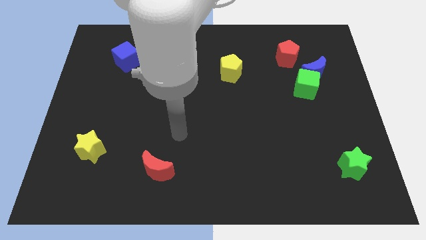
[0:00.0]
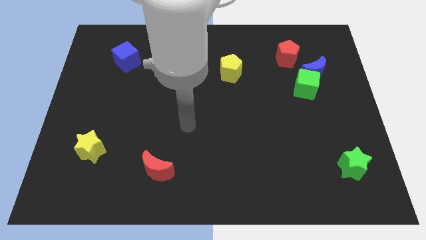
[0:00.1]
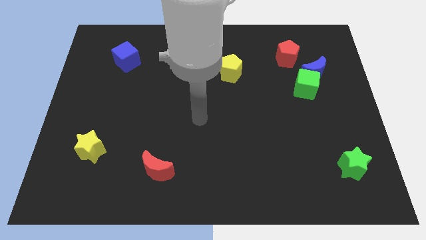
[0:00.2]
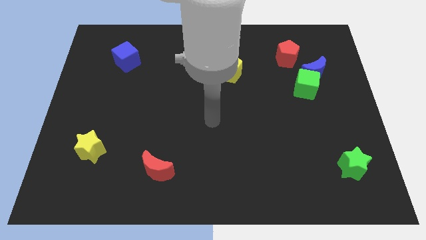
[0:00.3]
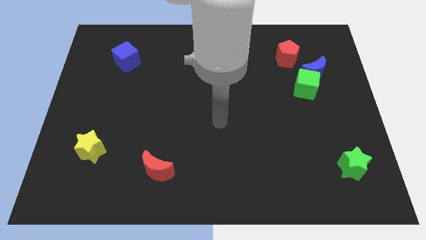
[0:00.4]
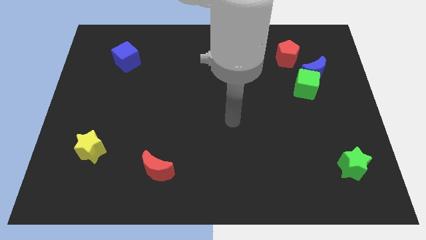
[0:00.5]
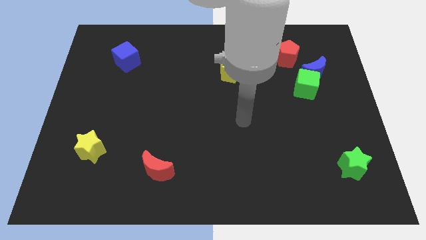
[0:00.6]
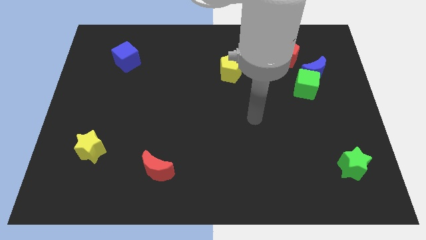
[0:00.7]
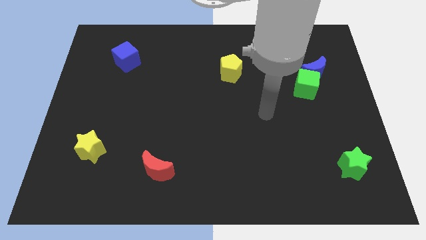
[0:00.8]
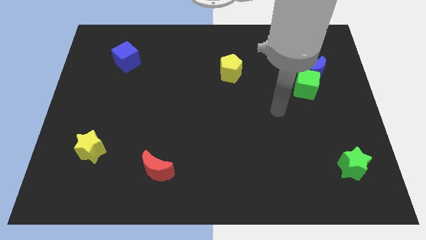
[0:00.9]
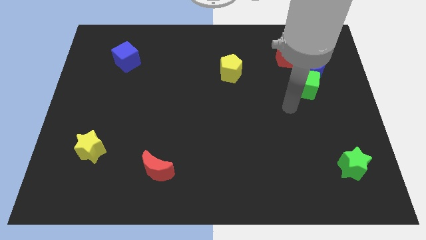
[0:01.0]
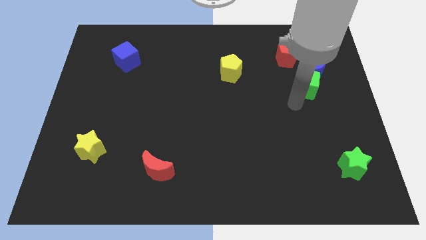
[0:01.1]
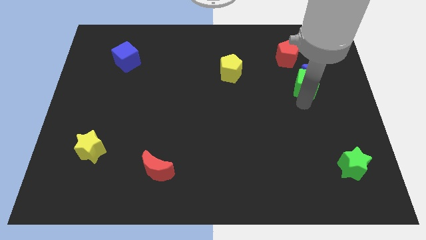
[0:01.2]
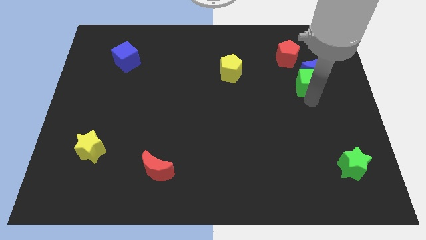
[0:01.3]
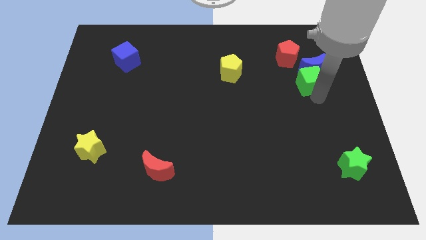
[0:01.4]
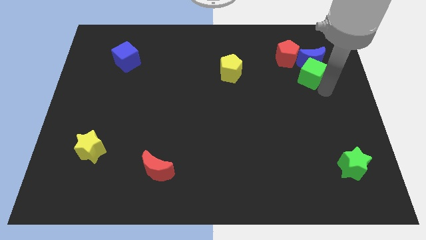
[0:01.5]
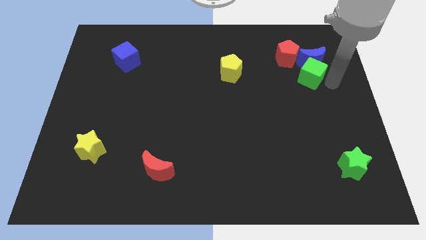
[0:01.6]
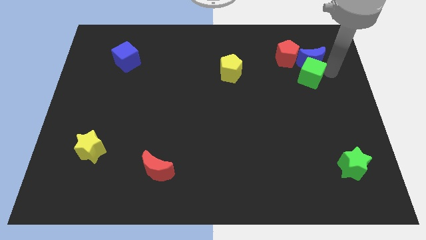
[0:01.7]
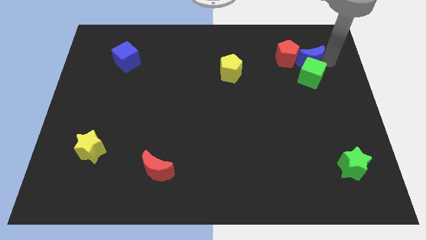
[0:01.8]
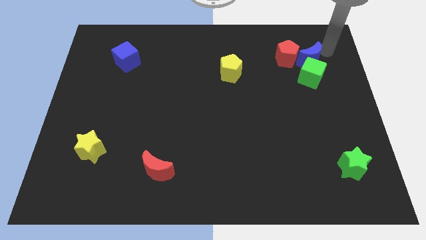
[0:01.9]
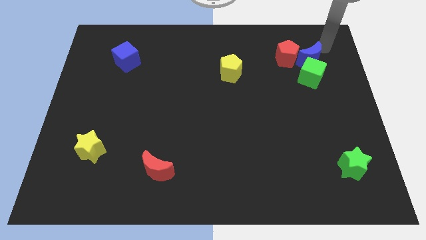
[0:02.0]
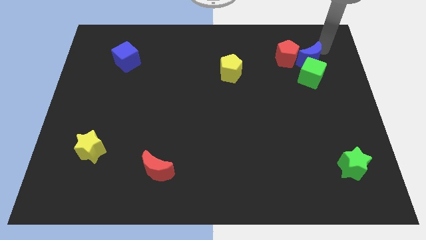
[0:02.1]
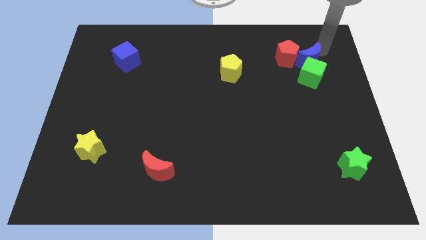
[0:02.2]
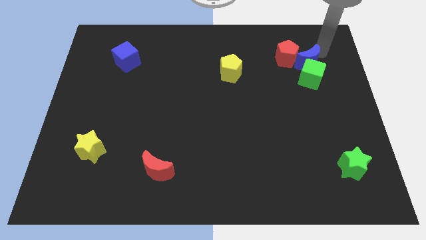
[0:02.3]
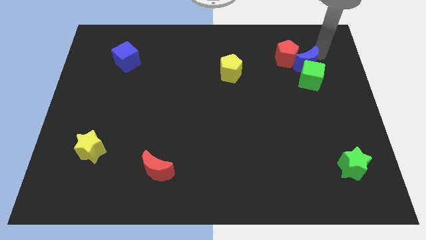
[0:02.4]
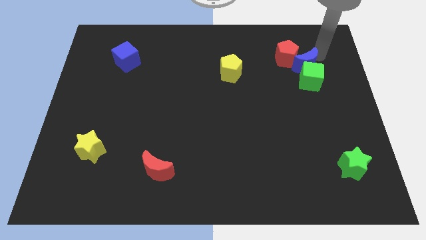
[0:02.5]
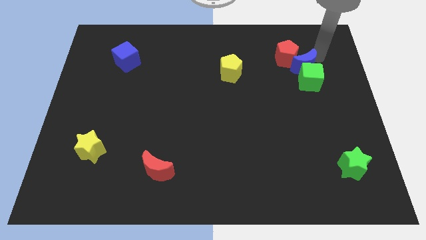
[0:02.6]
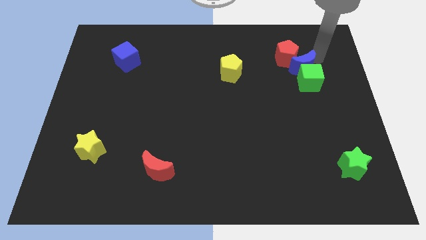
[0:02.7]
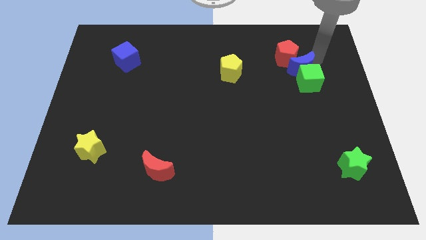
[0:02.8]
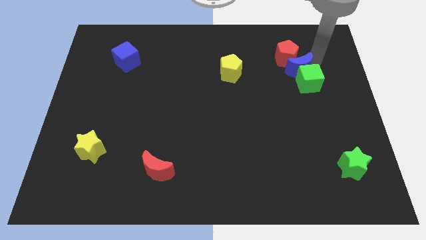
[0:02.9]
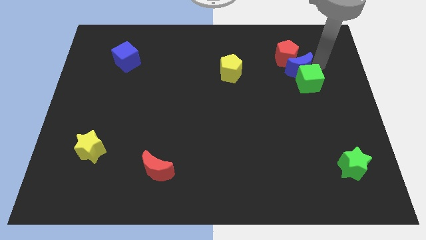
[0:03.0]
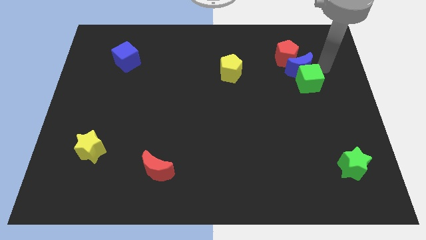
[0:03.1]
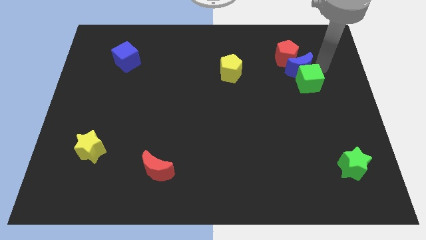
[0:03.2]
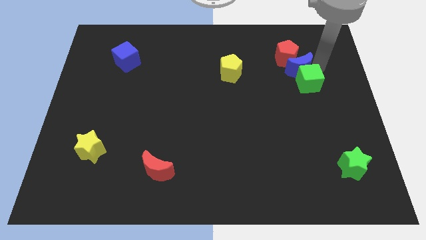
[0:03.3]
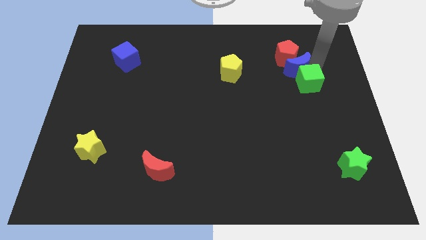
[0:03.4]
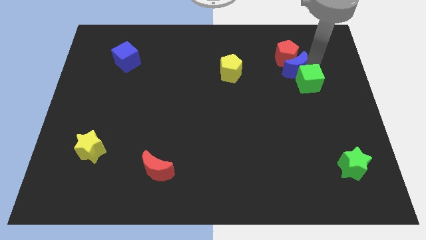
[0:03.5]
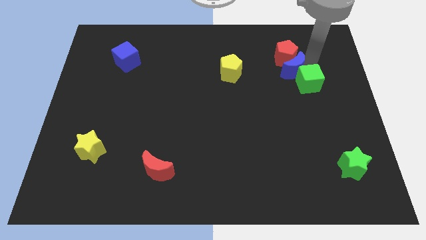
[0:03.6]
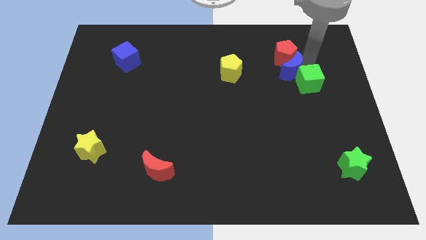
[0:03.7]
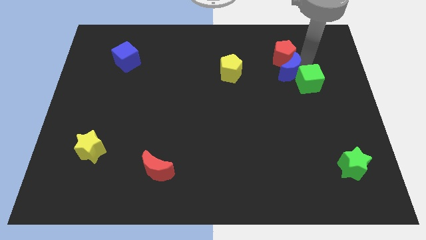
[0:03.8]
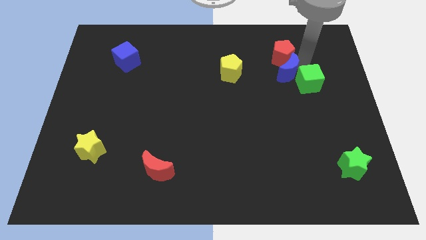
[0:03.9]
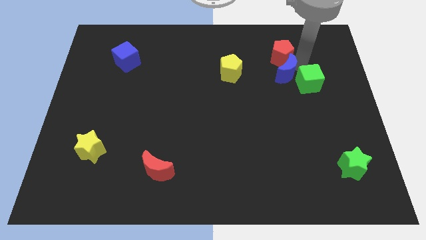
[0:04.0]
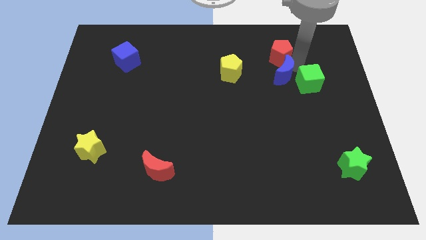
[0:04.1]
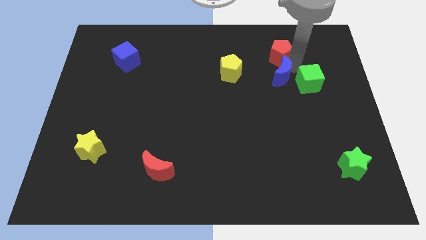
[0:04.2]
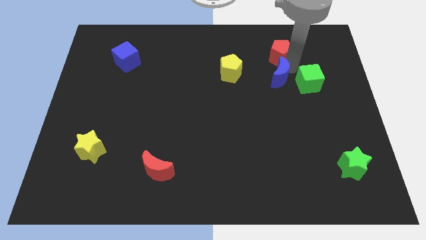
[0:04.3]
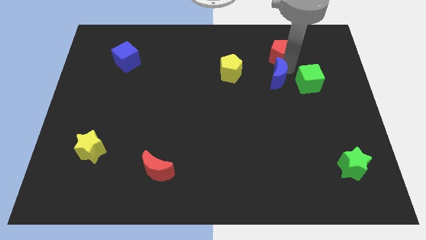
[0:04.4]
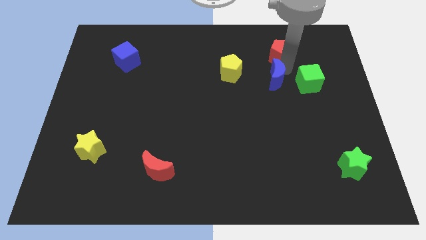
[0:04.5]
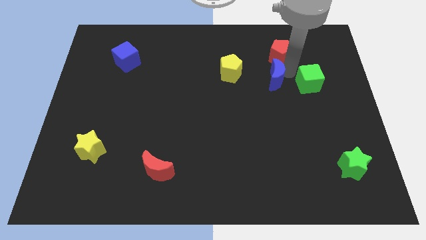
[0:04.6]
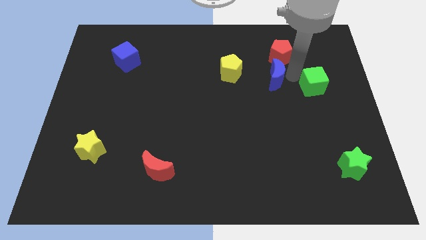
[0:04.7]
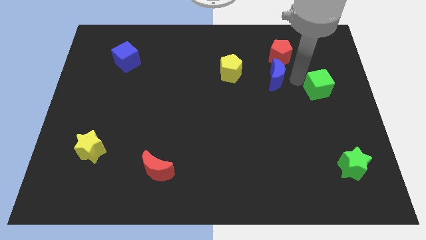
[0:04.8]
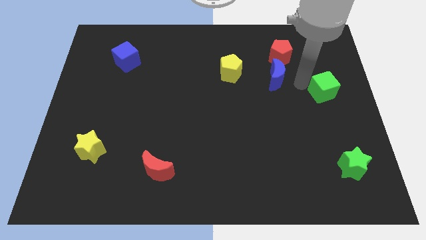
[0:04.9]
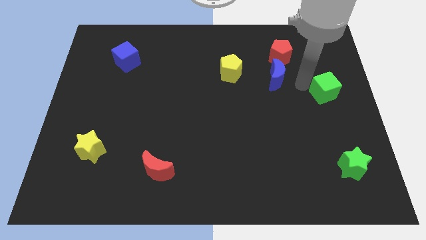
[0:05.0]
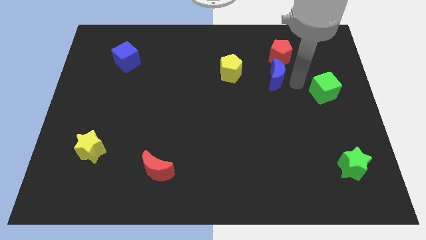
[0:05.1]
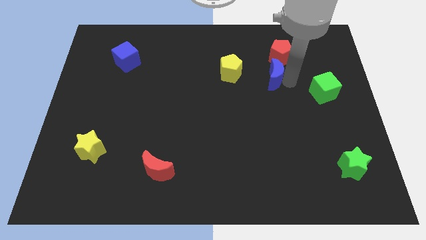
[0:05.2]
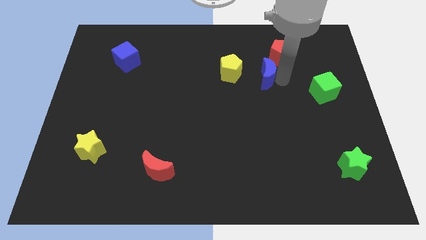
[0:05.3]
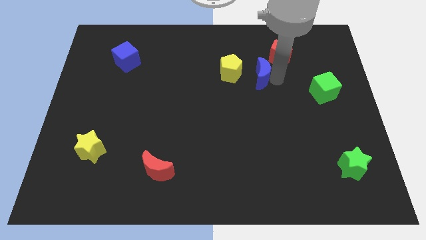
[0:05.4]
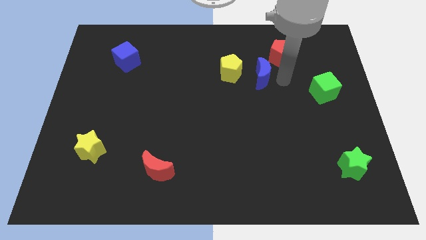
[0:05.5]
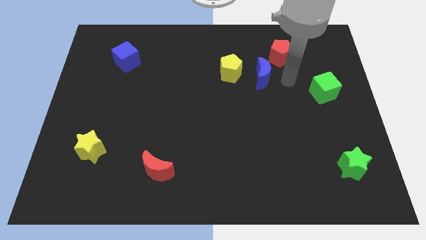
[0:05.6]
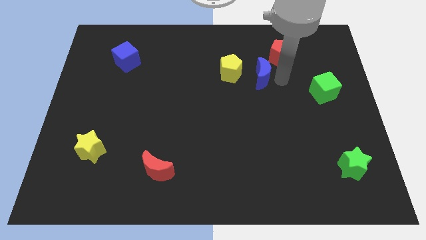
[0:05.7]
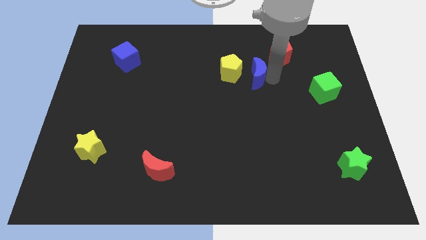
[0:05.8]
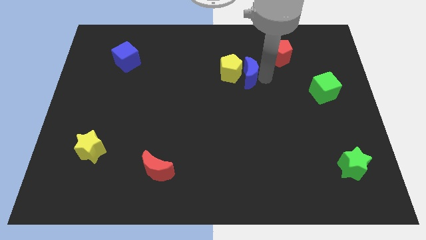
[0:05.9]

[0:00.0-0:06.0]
slide the blue moon close to the yellow pentagon

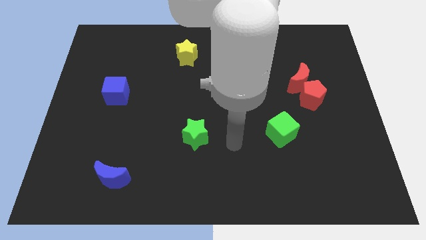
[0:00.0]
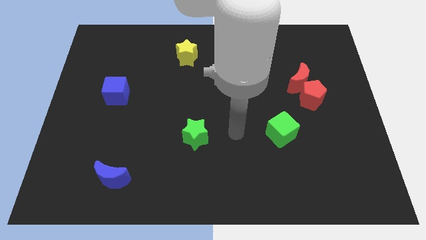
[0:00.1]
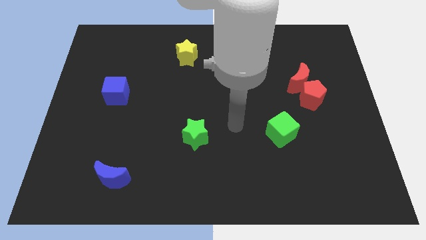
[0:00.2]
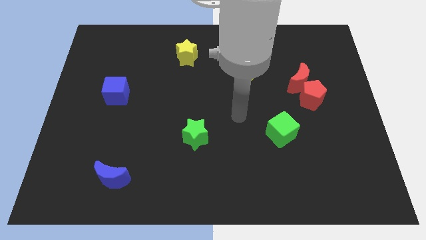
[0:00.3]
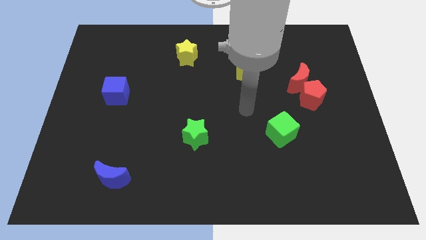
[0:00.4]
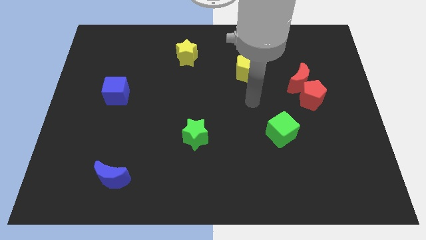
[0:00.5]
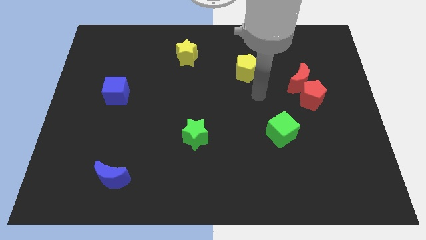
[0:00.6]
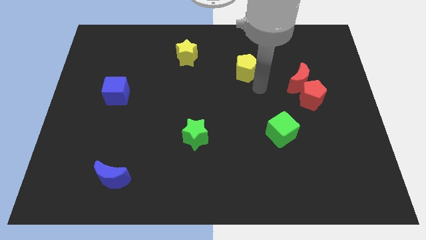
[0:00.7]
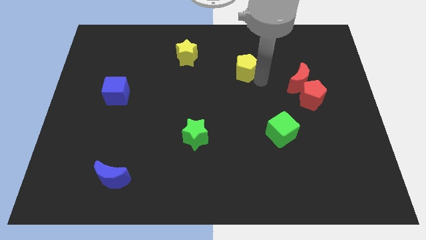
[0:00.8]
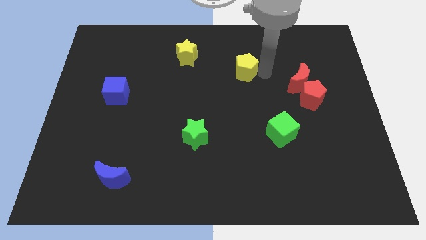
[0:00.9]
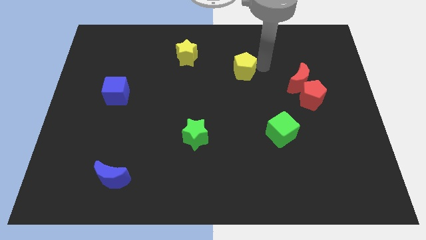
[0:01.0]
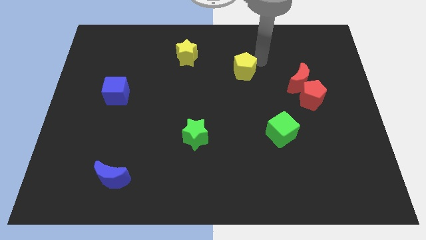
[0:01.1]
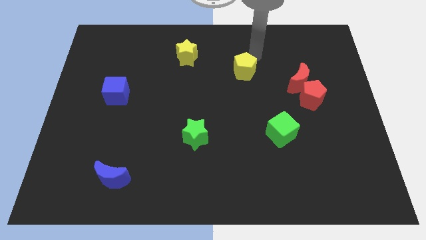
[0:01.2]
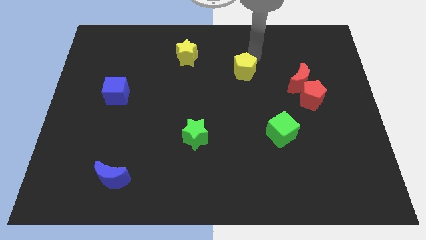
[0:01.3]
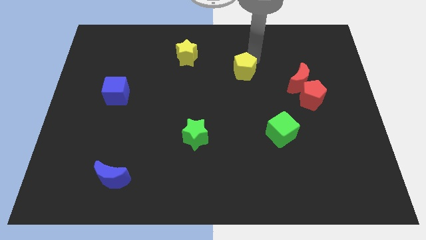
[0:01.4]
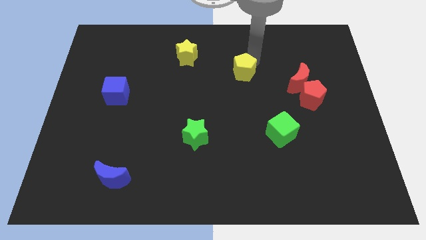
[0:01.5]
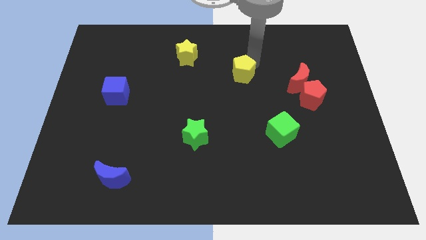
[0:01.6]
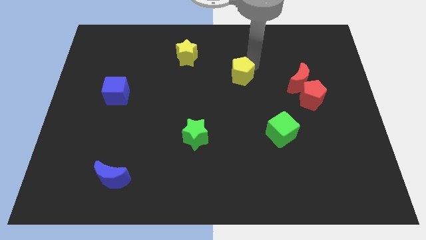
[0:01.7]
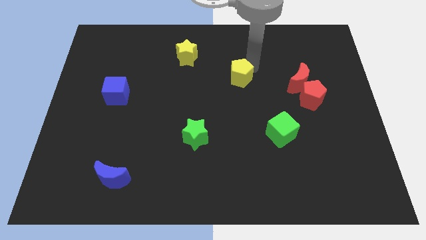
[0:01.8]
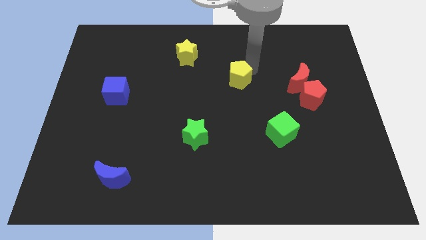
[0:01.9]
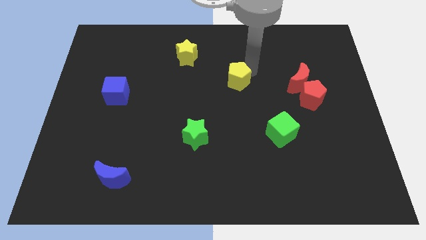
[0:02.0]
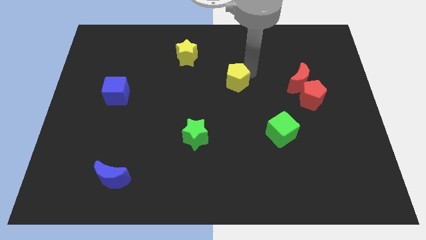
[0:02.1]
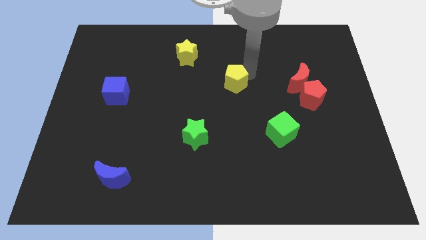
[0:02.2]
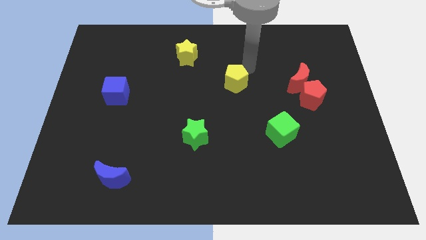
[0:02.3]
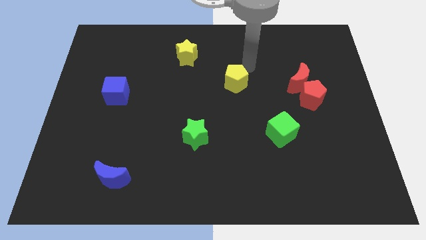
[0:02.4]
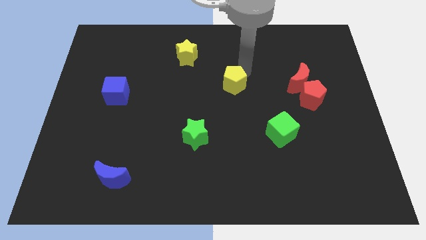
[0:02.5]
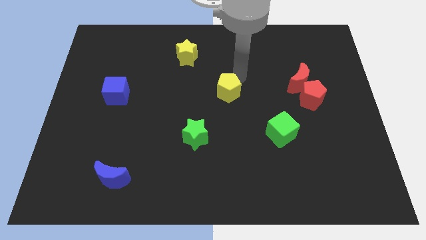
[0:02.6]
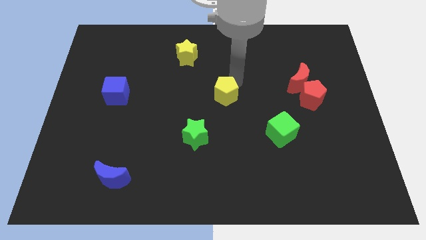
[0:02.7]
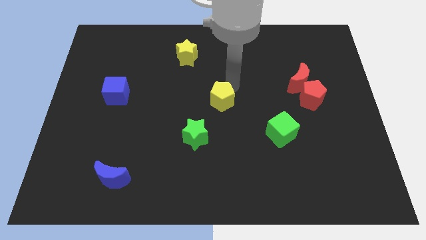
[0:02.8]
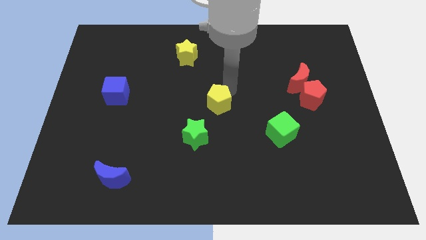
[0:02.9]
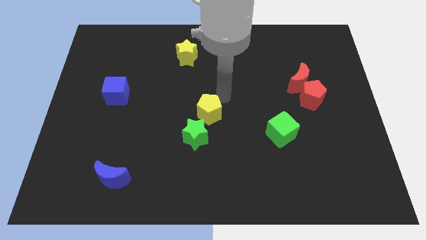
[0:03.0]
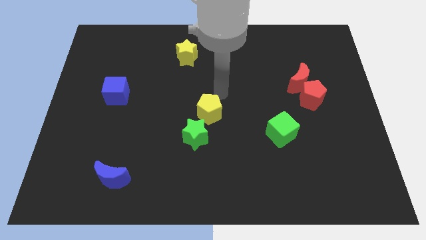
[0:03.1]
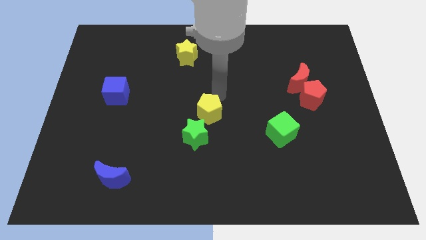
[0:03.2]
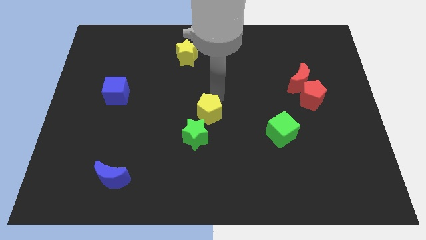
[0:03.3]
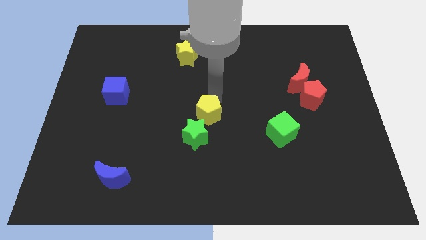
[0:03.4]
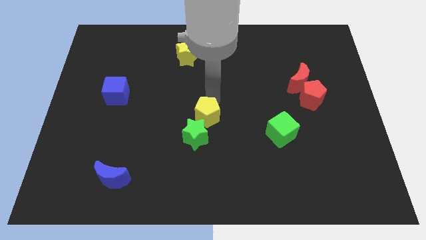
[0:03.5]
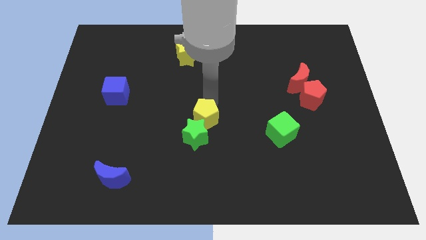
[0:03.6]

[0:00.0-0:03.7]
slide the yellow pentagon towards the green star
